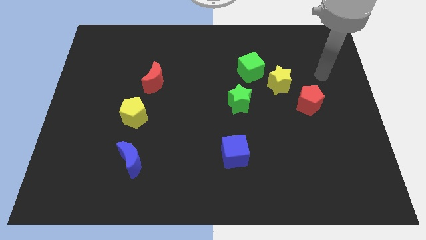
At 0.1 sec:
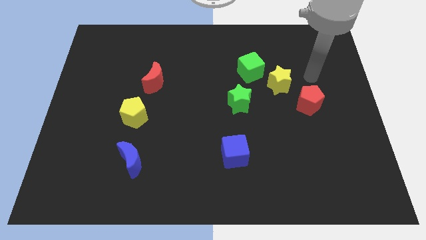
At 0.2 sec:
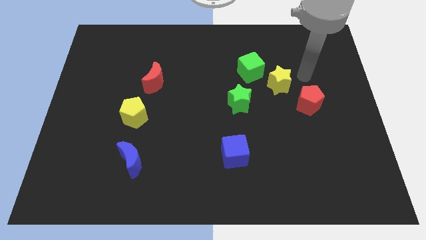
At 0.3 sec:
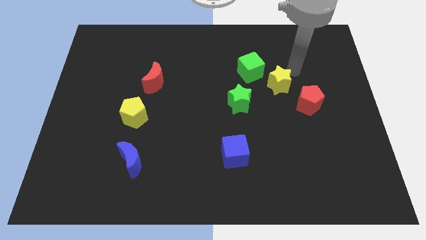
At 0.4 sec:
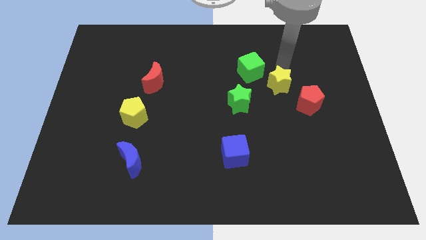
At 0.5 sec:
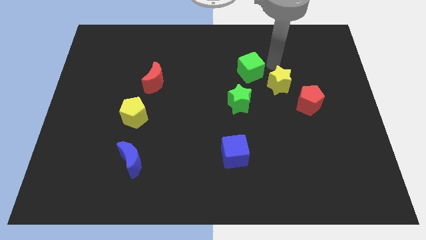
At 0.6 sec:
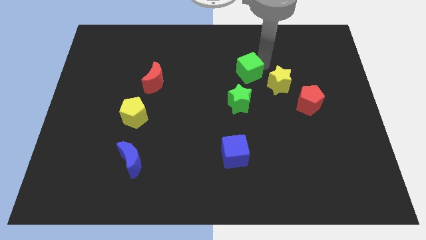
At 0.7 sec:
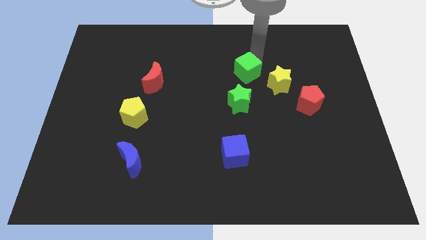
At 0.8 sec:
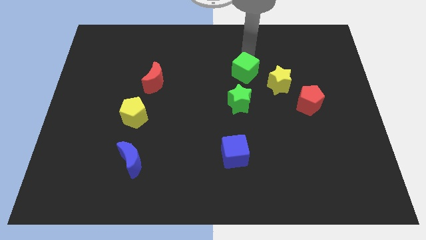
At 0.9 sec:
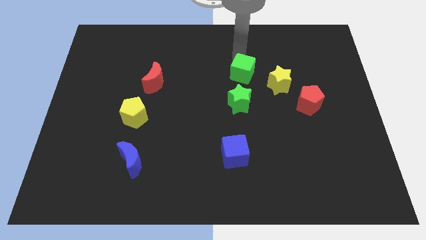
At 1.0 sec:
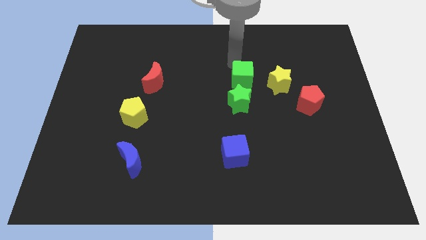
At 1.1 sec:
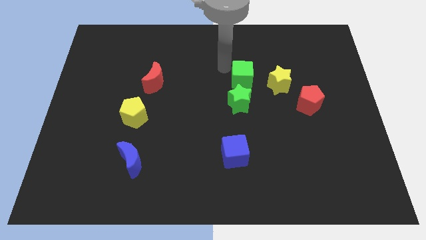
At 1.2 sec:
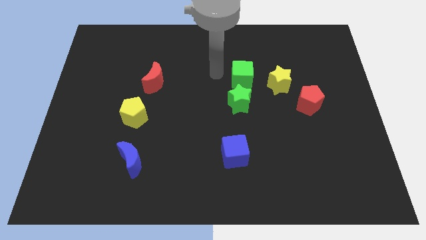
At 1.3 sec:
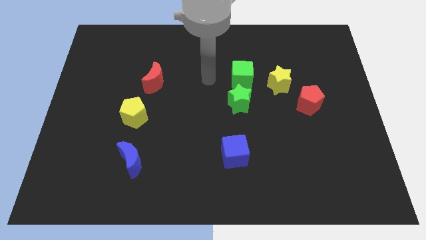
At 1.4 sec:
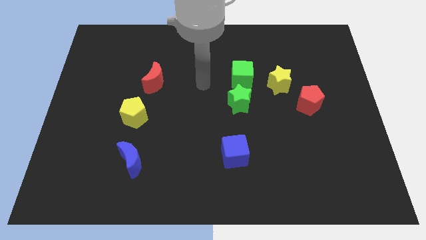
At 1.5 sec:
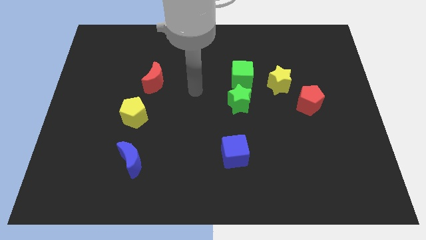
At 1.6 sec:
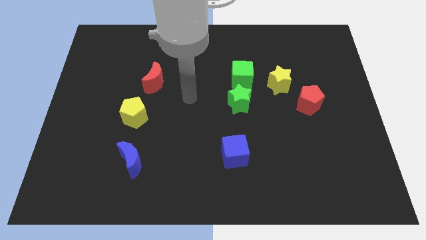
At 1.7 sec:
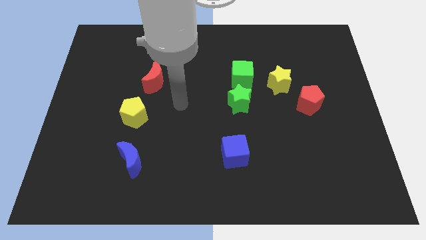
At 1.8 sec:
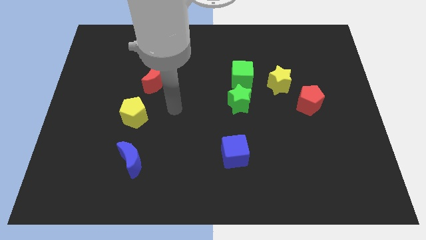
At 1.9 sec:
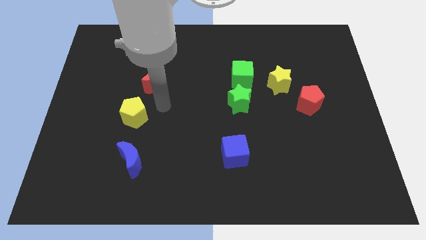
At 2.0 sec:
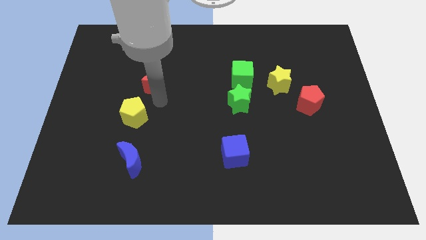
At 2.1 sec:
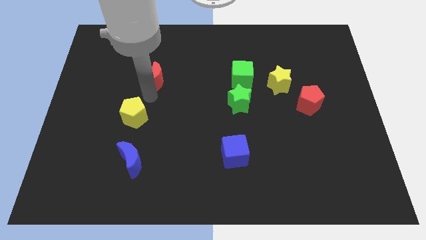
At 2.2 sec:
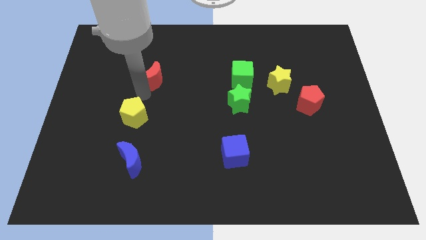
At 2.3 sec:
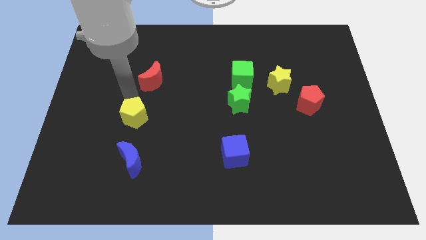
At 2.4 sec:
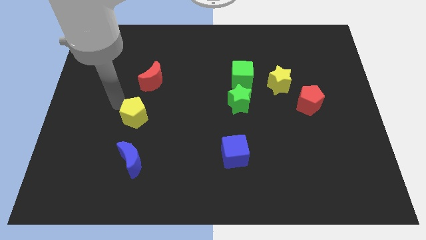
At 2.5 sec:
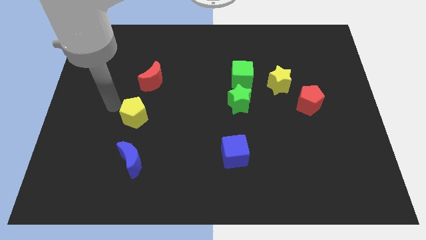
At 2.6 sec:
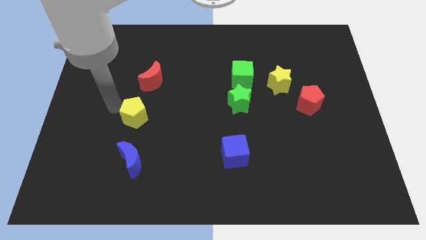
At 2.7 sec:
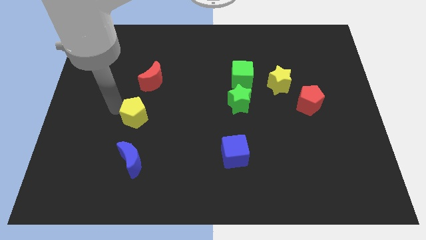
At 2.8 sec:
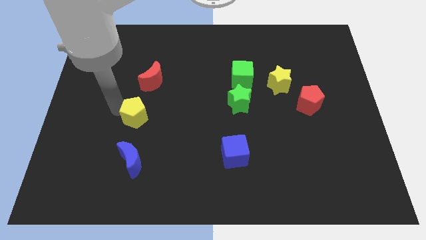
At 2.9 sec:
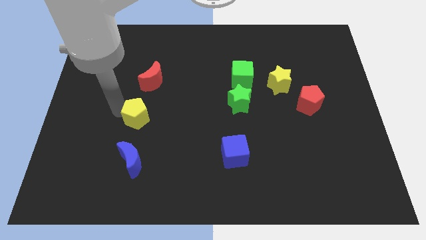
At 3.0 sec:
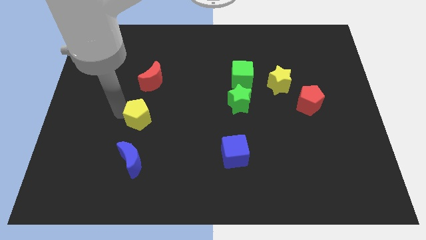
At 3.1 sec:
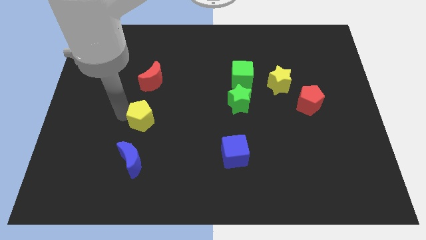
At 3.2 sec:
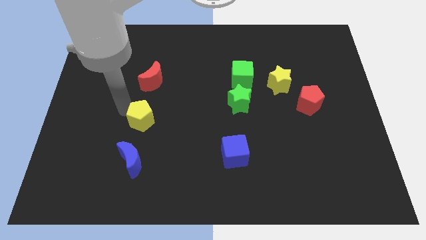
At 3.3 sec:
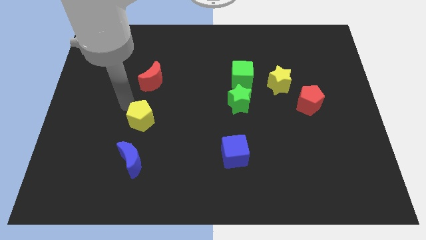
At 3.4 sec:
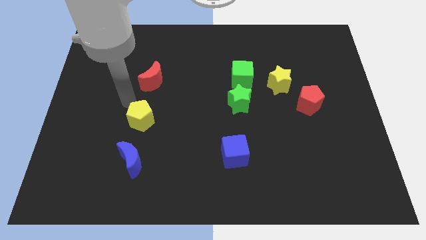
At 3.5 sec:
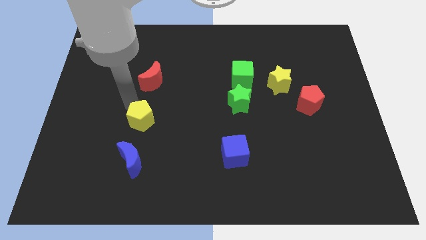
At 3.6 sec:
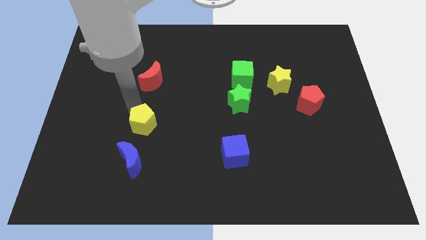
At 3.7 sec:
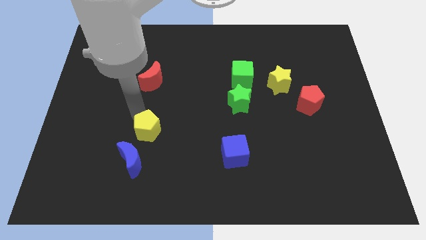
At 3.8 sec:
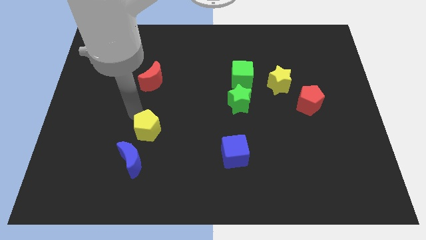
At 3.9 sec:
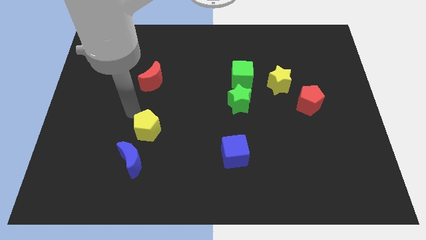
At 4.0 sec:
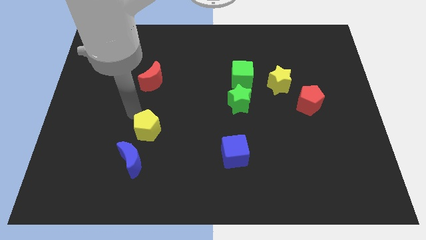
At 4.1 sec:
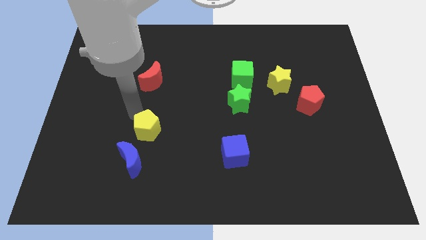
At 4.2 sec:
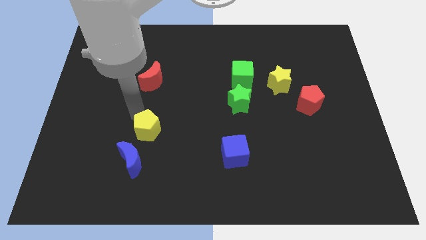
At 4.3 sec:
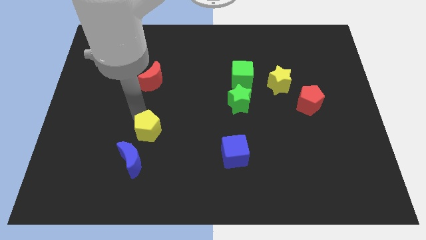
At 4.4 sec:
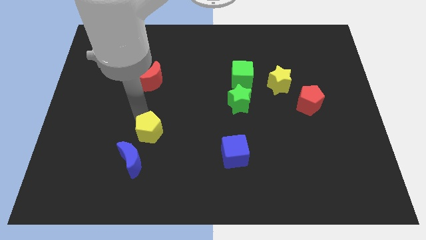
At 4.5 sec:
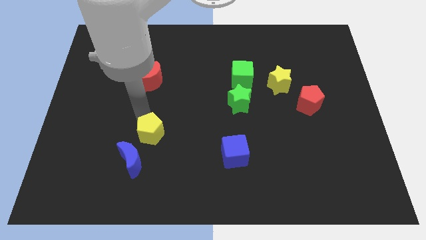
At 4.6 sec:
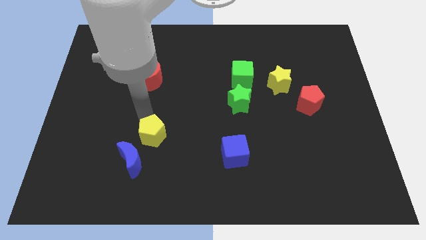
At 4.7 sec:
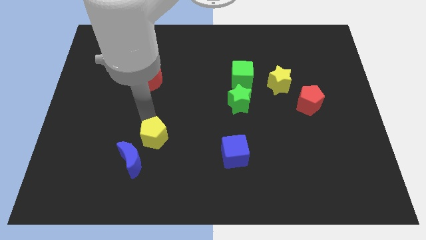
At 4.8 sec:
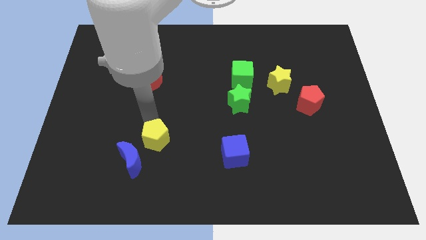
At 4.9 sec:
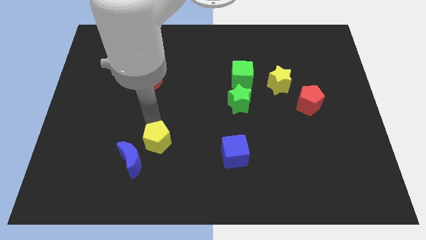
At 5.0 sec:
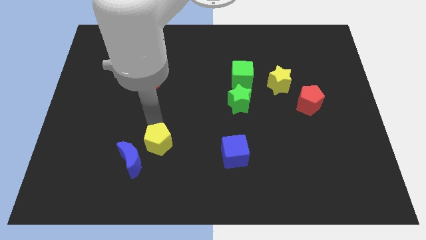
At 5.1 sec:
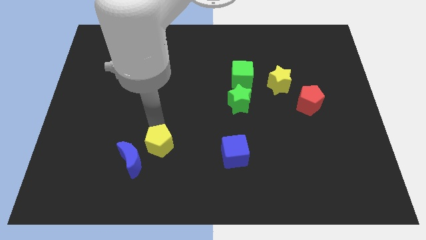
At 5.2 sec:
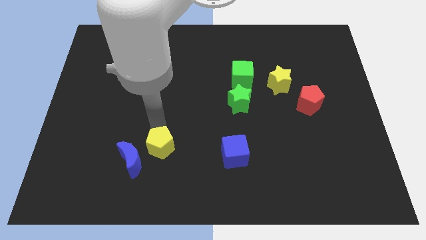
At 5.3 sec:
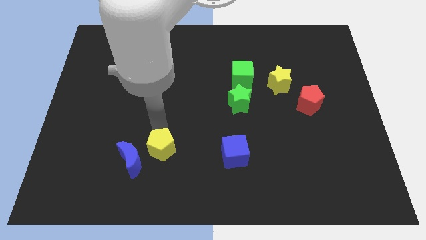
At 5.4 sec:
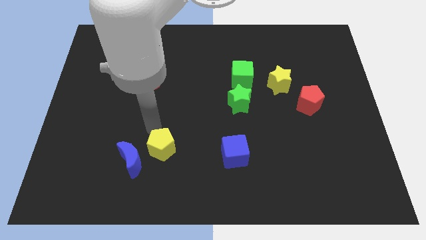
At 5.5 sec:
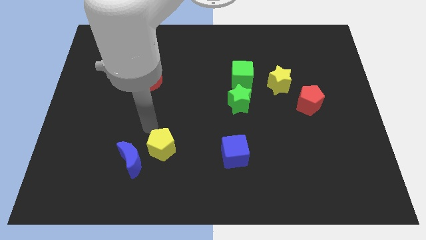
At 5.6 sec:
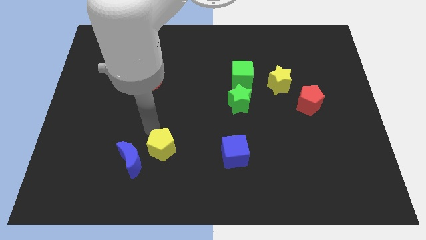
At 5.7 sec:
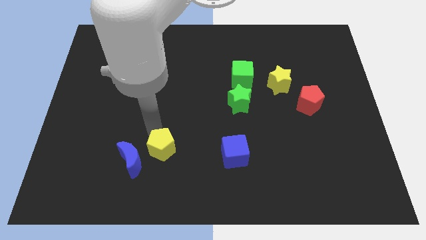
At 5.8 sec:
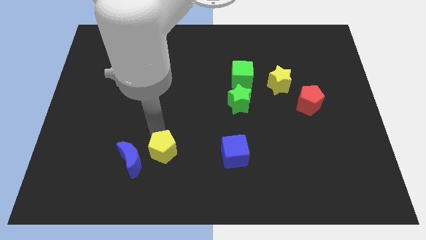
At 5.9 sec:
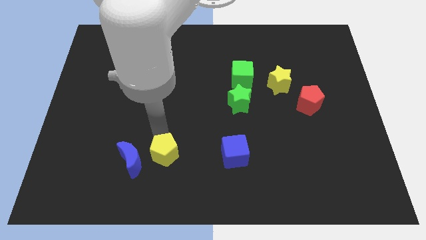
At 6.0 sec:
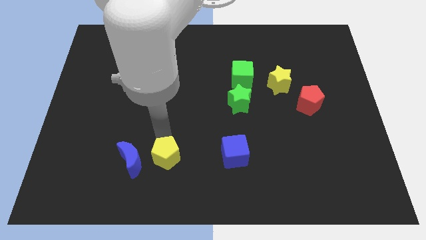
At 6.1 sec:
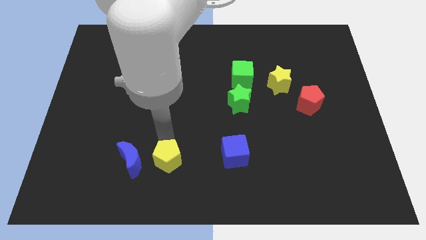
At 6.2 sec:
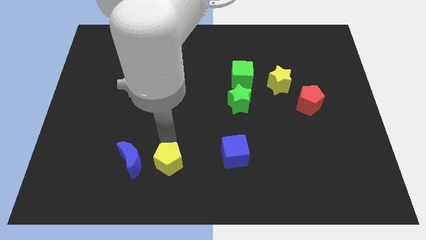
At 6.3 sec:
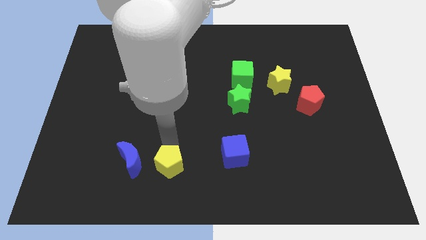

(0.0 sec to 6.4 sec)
move the yellow pentagon to the bottom side
